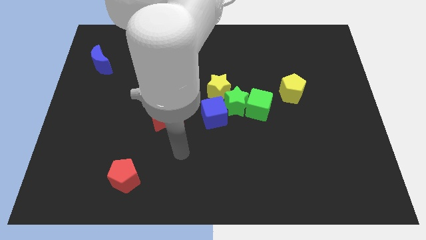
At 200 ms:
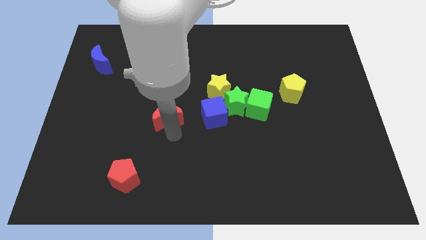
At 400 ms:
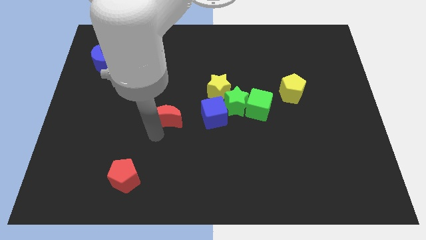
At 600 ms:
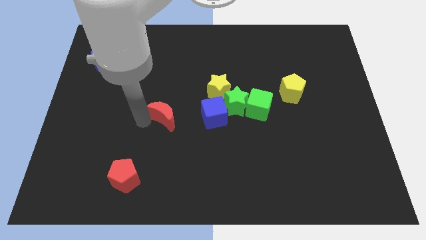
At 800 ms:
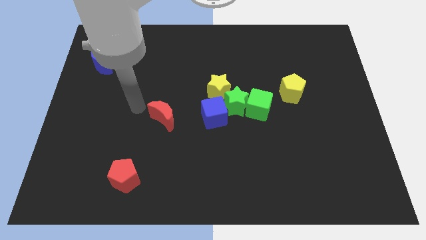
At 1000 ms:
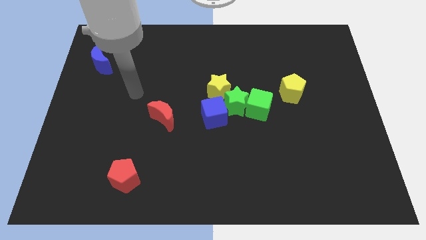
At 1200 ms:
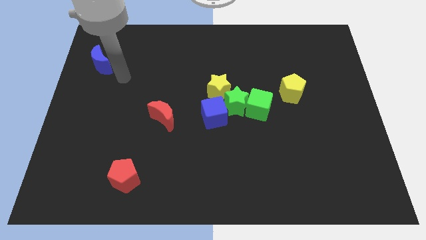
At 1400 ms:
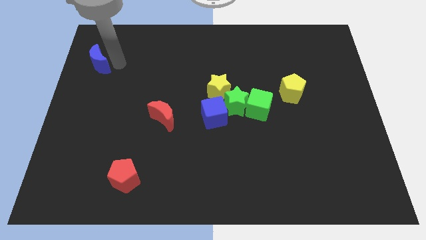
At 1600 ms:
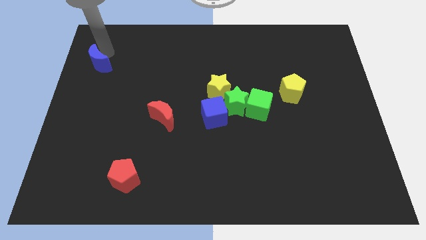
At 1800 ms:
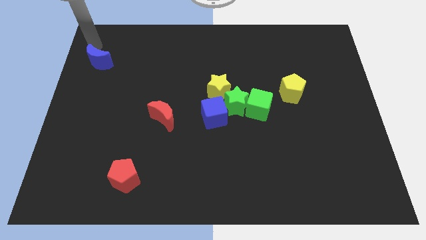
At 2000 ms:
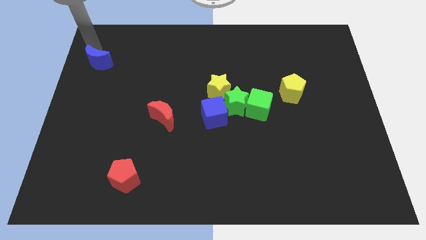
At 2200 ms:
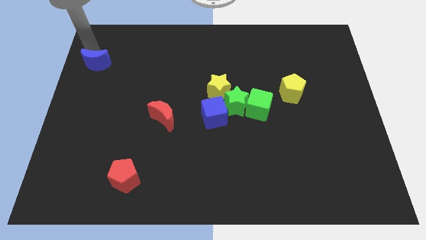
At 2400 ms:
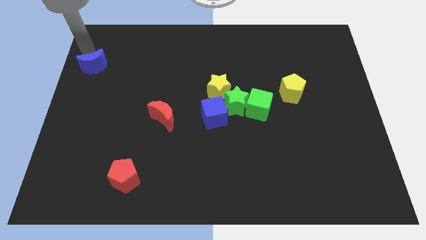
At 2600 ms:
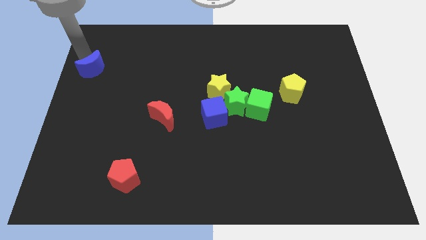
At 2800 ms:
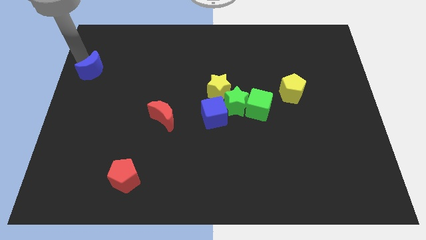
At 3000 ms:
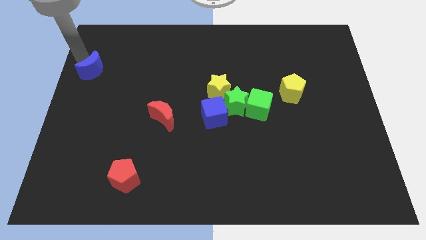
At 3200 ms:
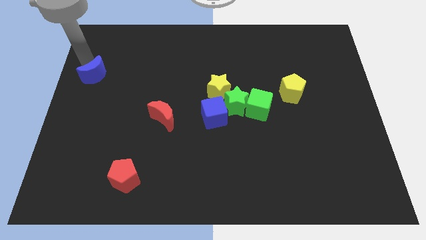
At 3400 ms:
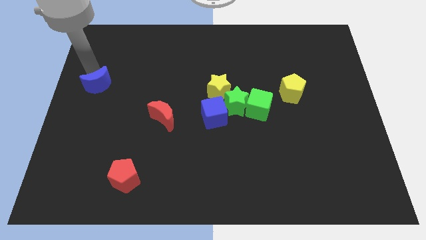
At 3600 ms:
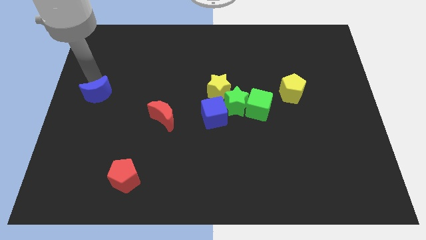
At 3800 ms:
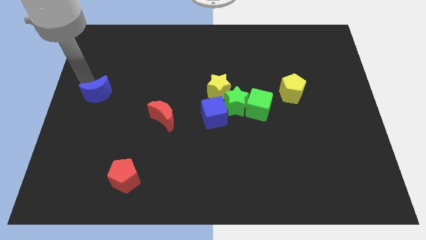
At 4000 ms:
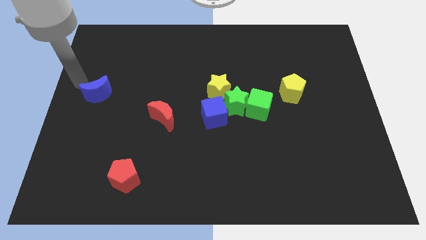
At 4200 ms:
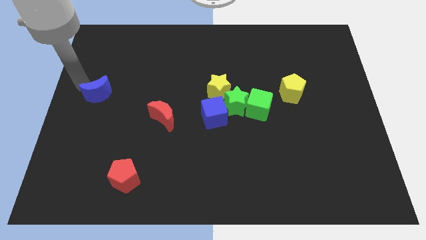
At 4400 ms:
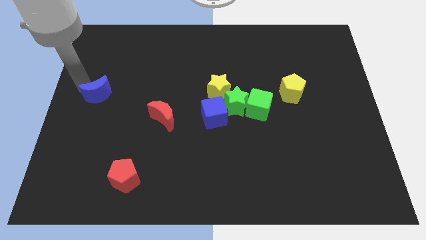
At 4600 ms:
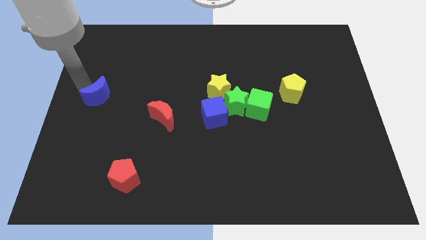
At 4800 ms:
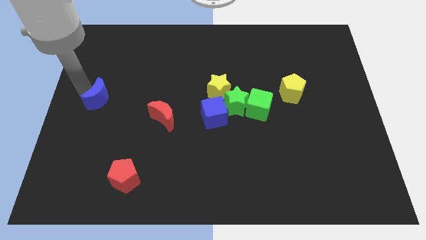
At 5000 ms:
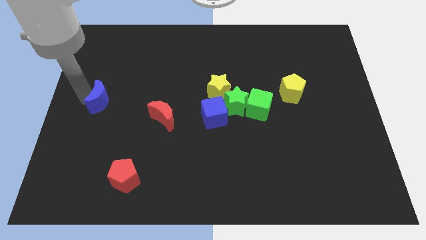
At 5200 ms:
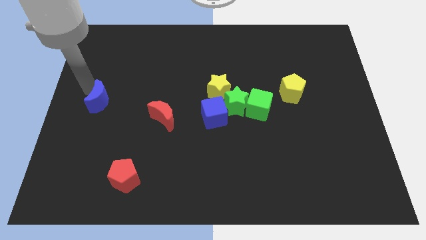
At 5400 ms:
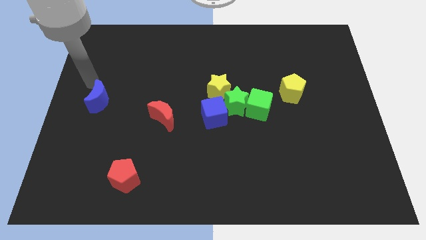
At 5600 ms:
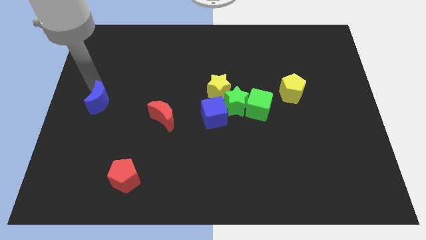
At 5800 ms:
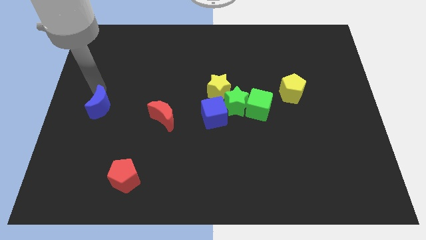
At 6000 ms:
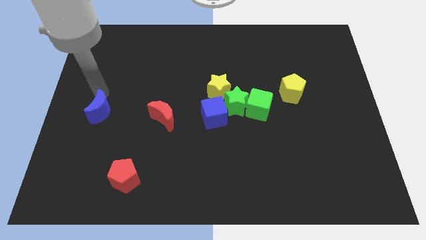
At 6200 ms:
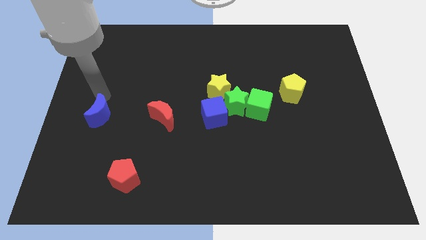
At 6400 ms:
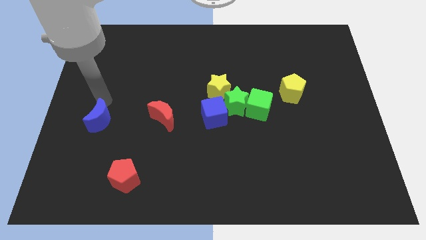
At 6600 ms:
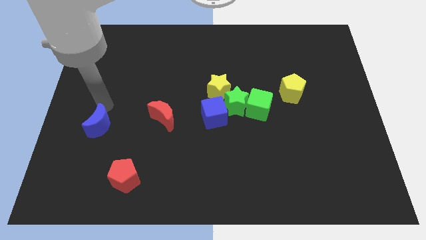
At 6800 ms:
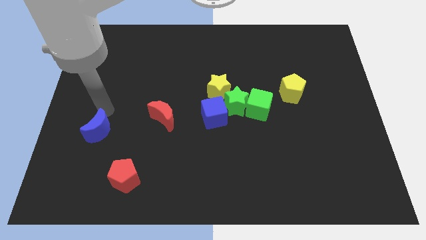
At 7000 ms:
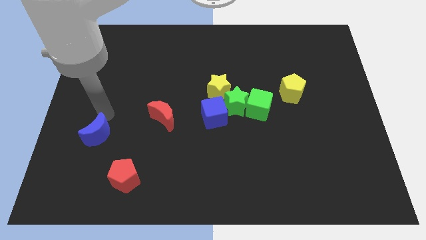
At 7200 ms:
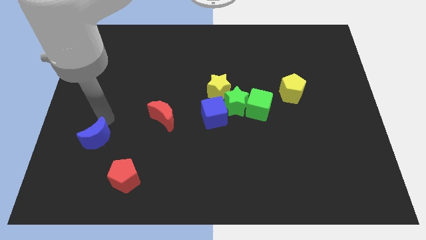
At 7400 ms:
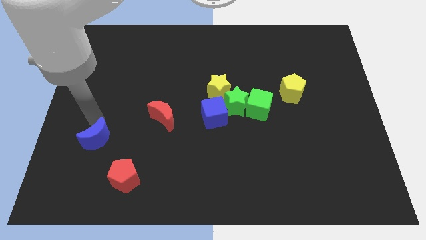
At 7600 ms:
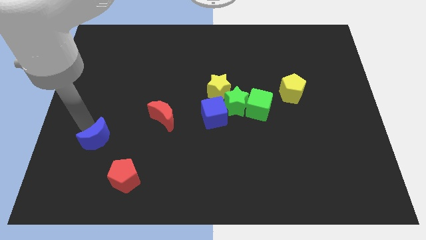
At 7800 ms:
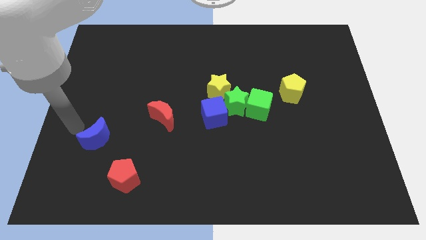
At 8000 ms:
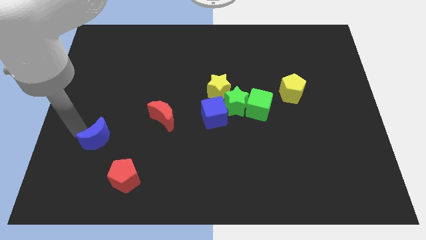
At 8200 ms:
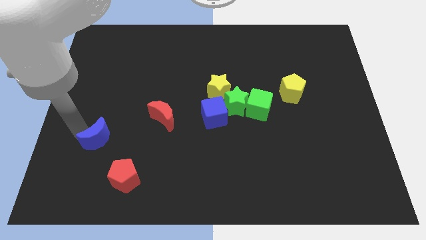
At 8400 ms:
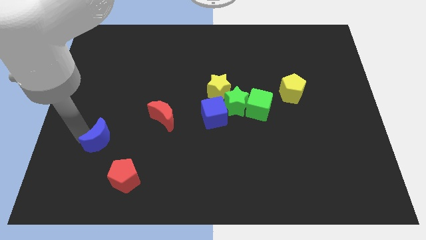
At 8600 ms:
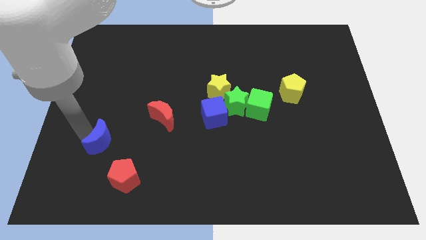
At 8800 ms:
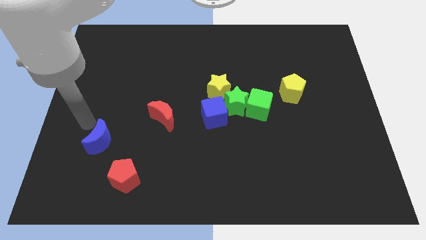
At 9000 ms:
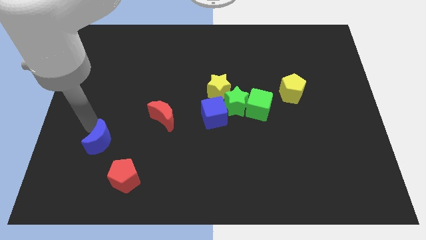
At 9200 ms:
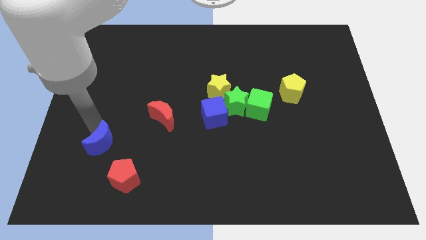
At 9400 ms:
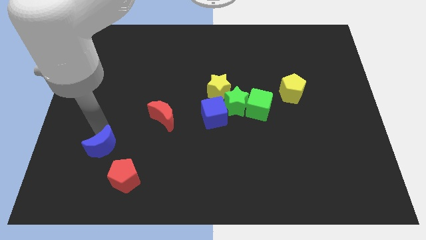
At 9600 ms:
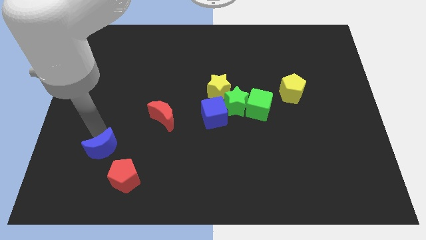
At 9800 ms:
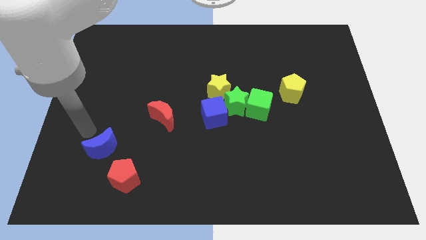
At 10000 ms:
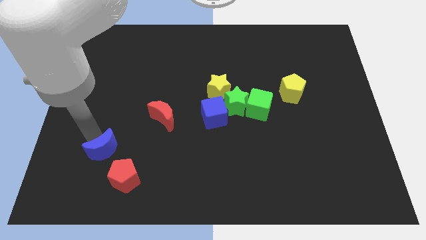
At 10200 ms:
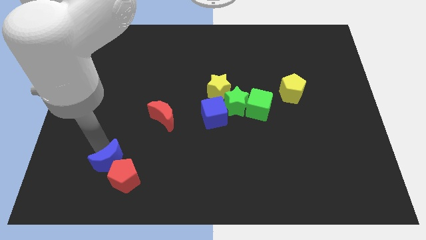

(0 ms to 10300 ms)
put the blue moon next to the red pentagon

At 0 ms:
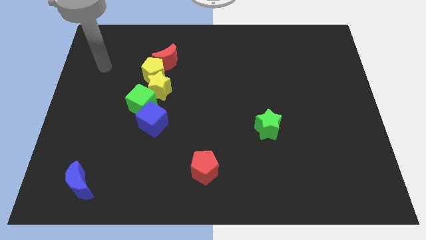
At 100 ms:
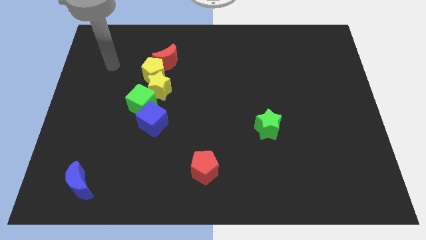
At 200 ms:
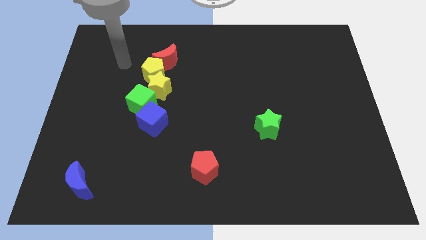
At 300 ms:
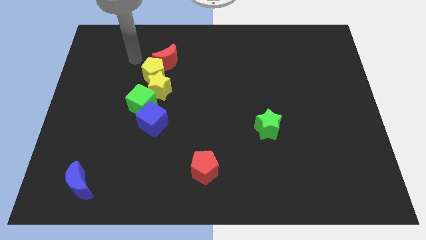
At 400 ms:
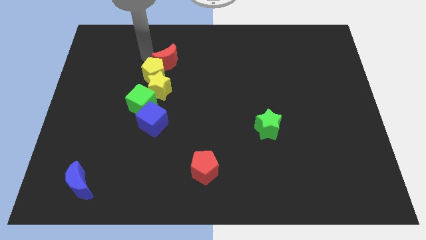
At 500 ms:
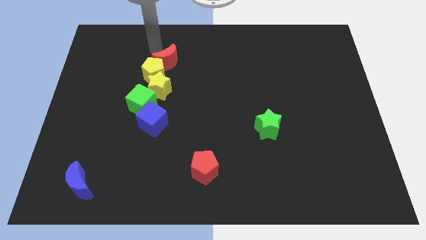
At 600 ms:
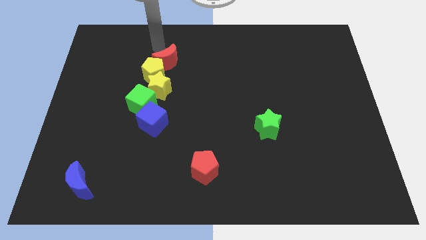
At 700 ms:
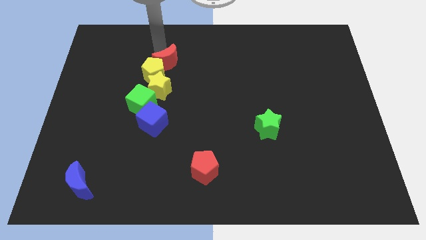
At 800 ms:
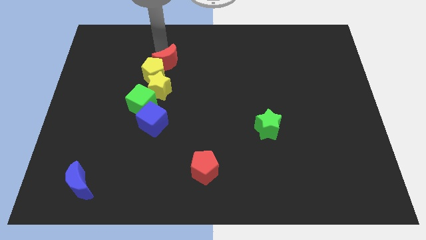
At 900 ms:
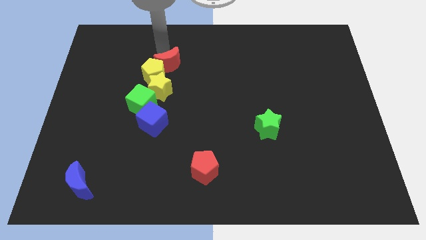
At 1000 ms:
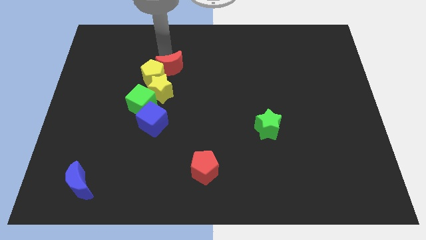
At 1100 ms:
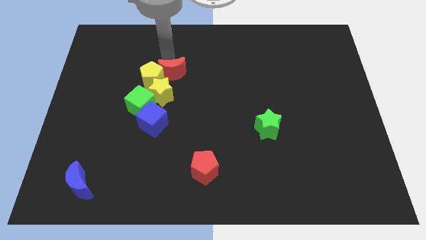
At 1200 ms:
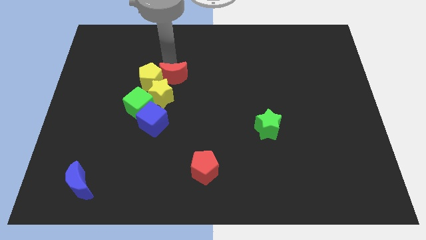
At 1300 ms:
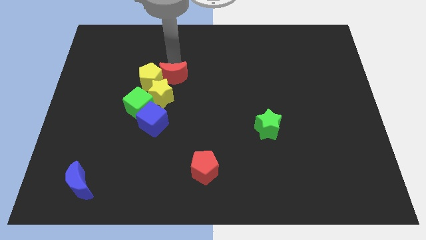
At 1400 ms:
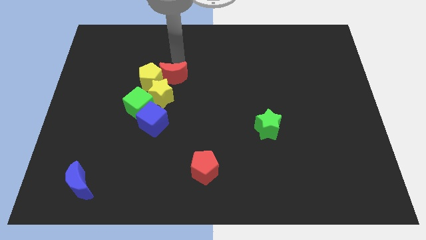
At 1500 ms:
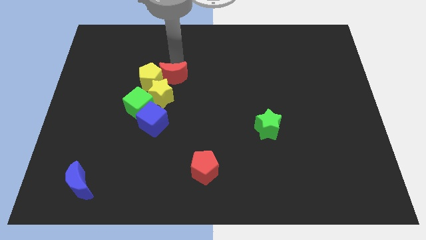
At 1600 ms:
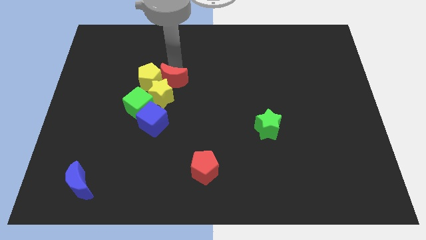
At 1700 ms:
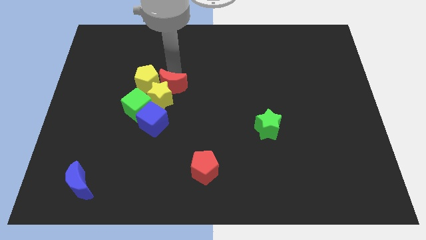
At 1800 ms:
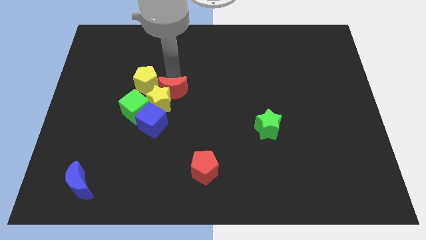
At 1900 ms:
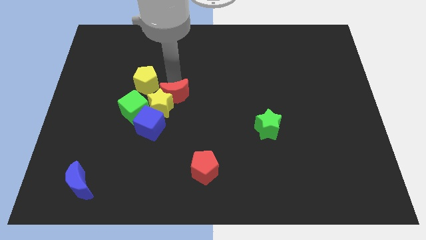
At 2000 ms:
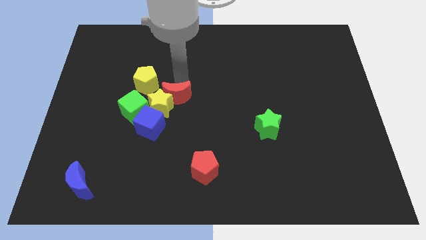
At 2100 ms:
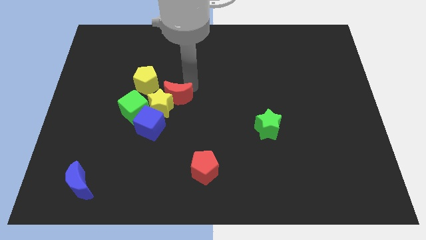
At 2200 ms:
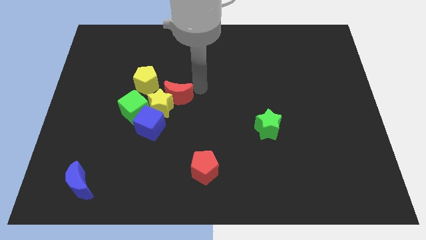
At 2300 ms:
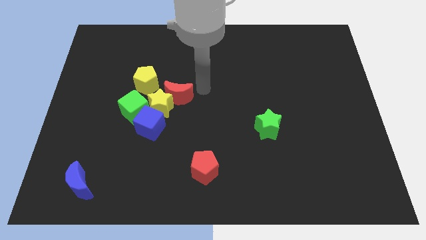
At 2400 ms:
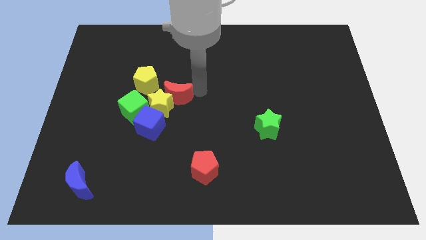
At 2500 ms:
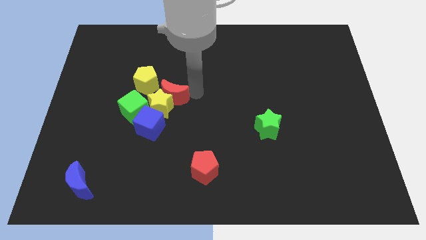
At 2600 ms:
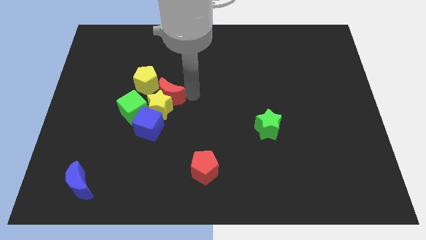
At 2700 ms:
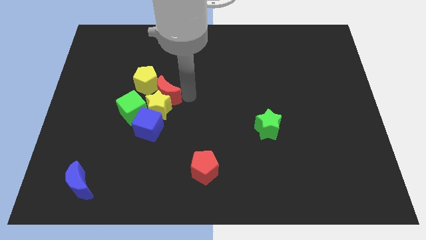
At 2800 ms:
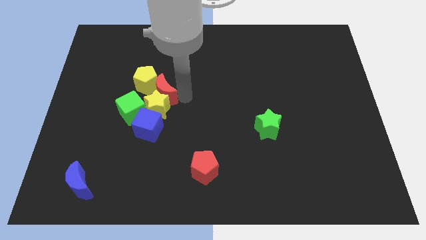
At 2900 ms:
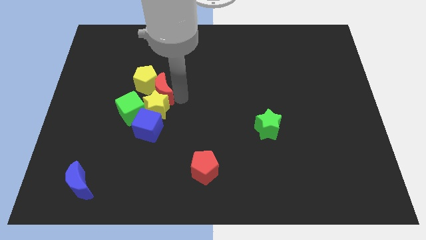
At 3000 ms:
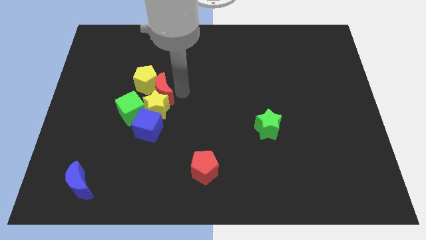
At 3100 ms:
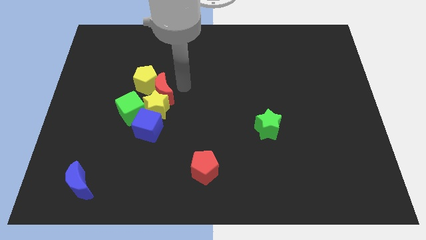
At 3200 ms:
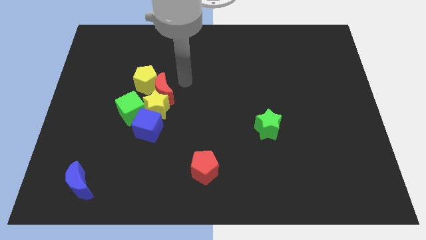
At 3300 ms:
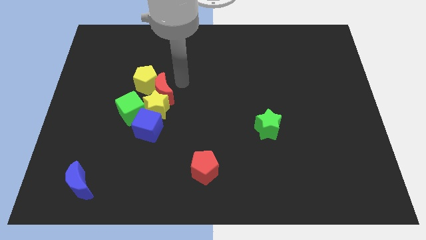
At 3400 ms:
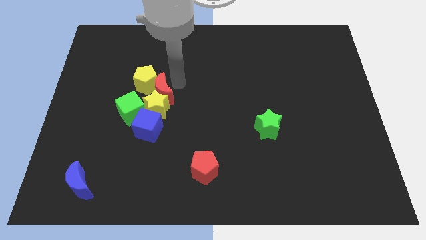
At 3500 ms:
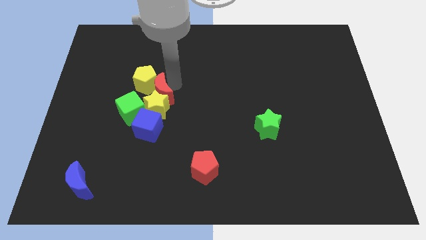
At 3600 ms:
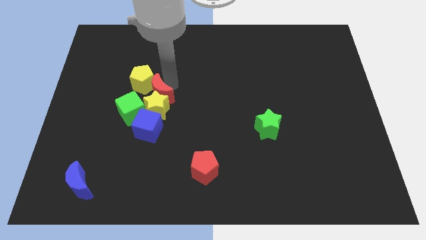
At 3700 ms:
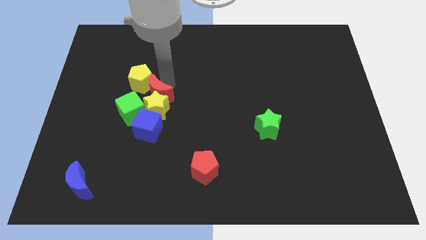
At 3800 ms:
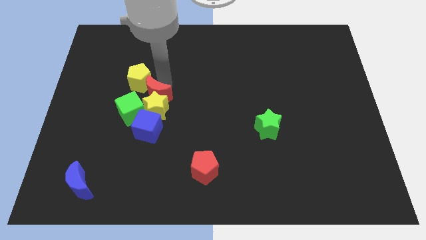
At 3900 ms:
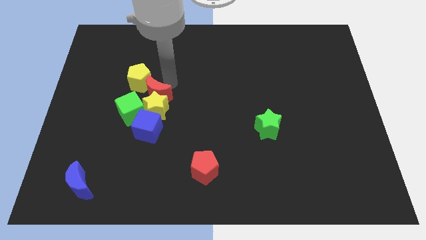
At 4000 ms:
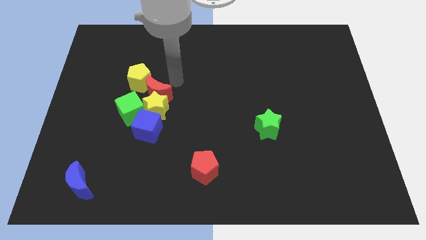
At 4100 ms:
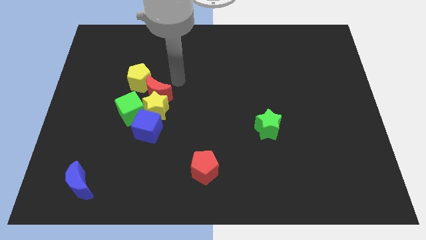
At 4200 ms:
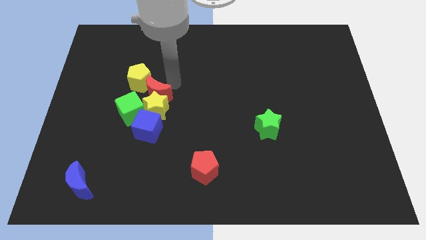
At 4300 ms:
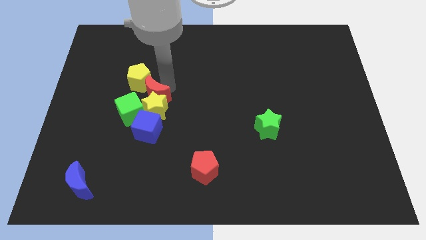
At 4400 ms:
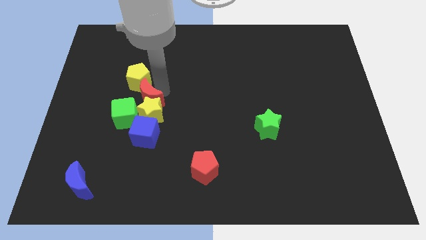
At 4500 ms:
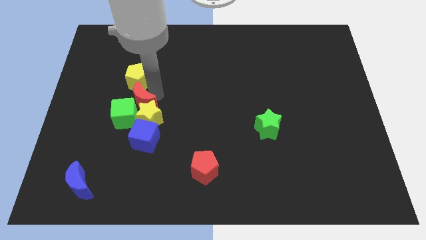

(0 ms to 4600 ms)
slide the red moon to the green cube
